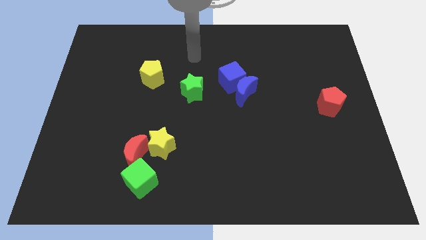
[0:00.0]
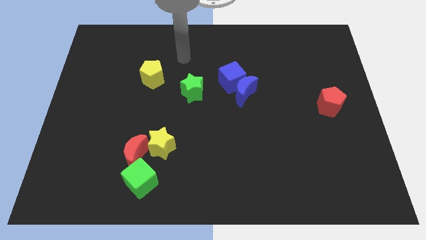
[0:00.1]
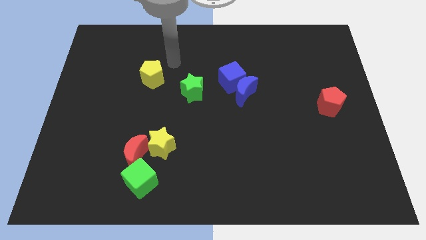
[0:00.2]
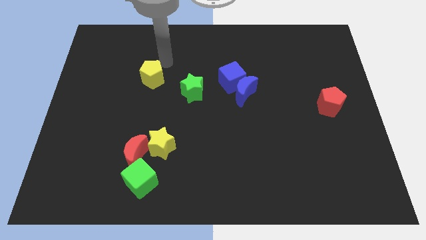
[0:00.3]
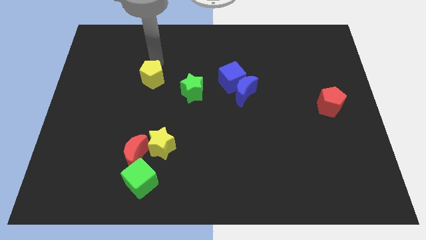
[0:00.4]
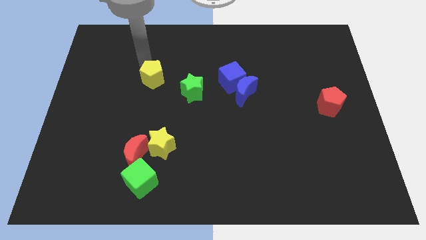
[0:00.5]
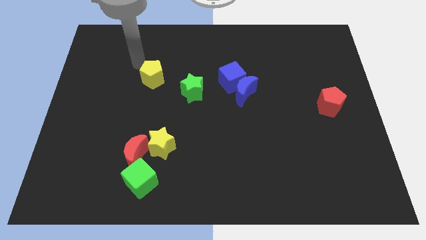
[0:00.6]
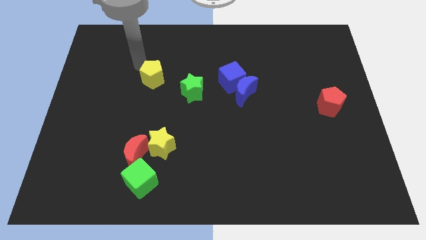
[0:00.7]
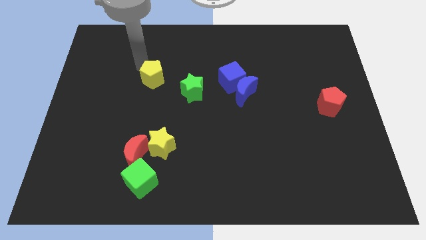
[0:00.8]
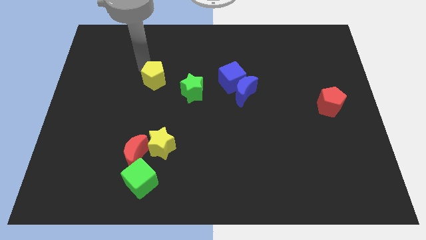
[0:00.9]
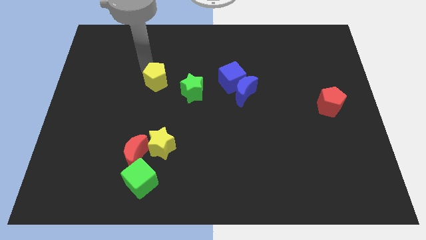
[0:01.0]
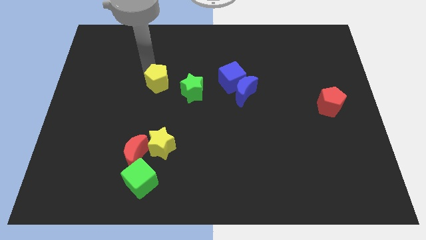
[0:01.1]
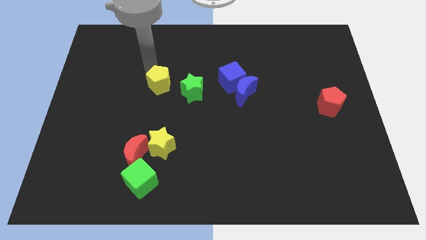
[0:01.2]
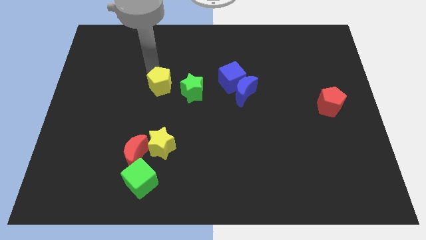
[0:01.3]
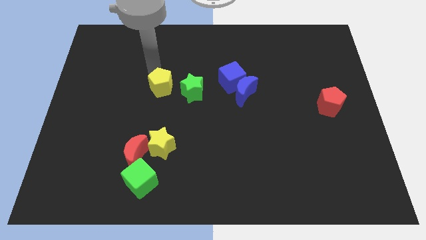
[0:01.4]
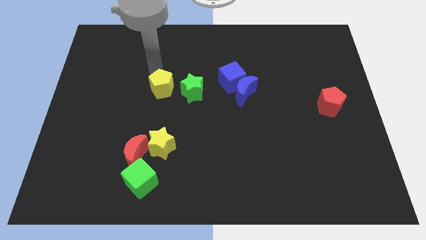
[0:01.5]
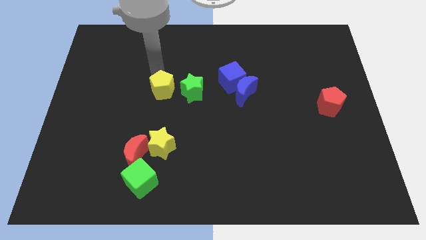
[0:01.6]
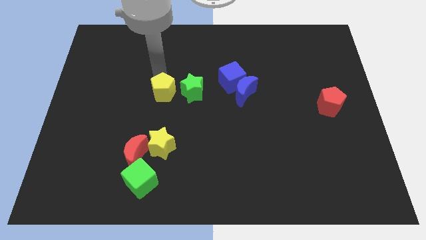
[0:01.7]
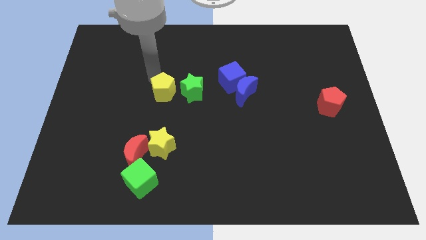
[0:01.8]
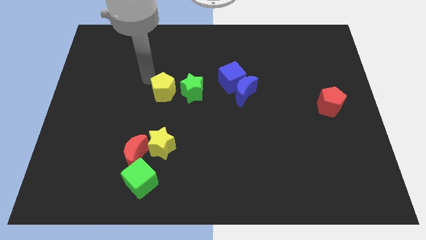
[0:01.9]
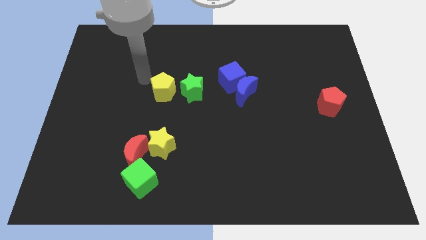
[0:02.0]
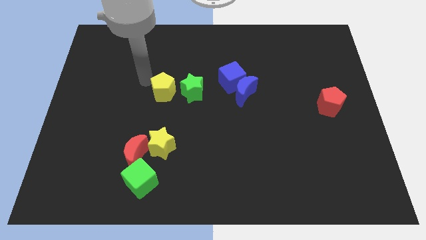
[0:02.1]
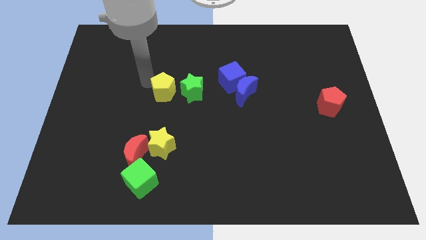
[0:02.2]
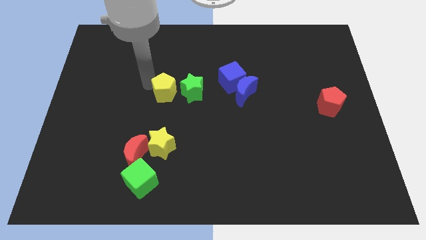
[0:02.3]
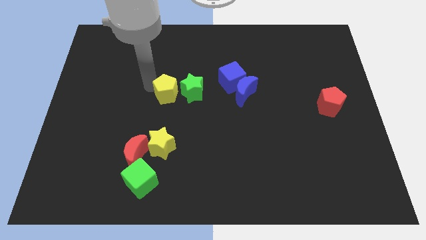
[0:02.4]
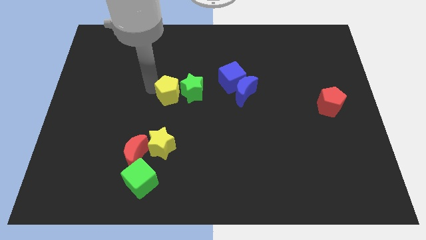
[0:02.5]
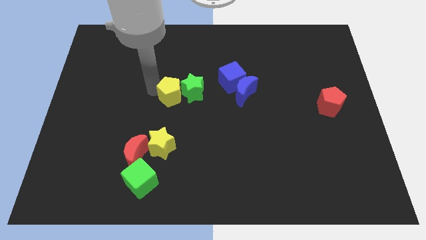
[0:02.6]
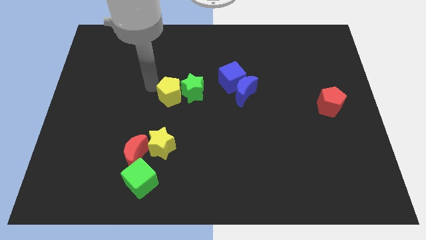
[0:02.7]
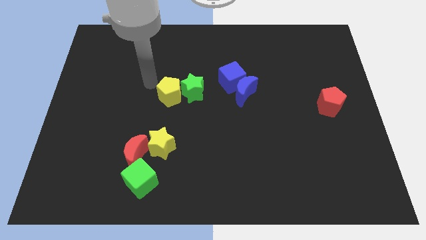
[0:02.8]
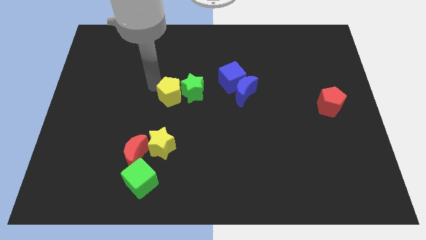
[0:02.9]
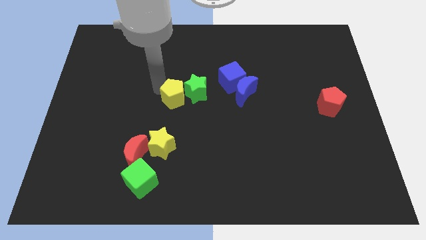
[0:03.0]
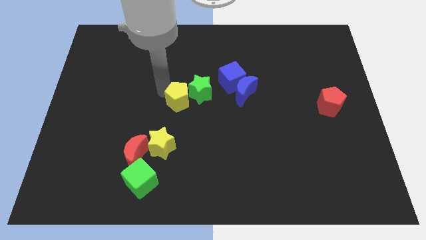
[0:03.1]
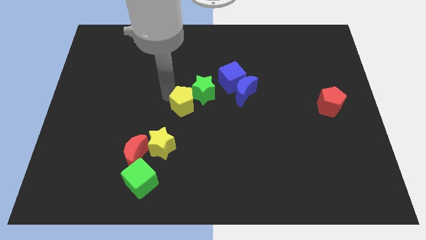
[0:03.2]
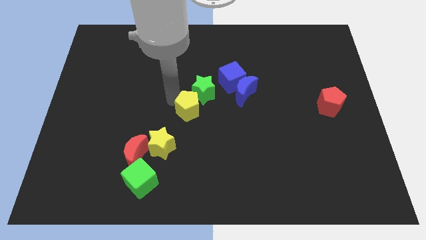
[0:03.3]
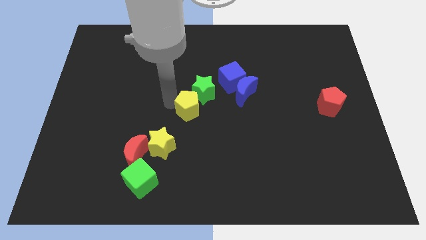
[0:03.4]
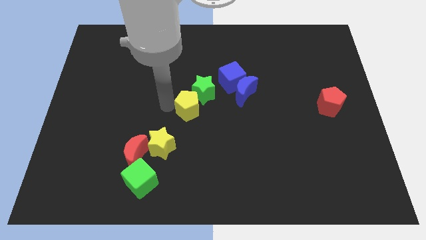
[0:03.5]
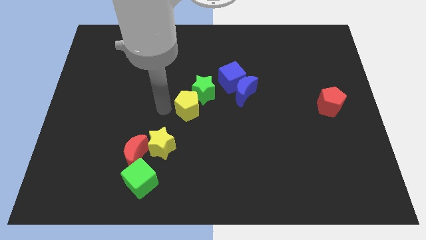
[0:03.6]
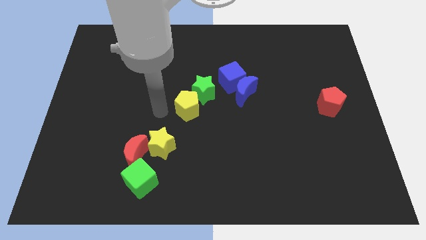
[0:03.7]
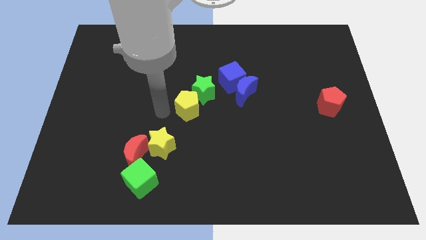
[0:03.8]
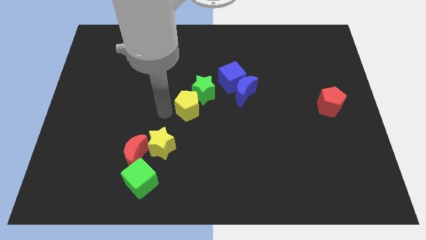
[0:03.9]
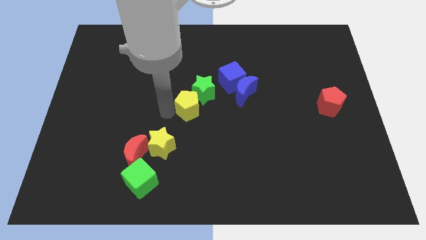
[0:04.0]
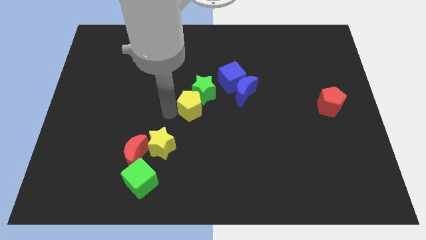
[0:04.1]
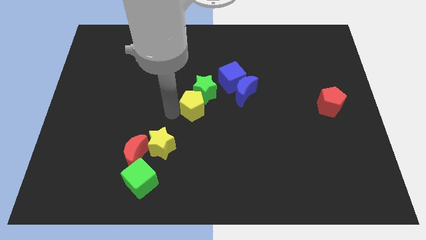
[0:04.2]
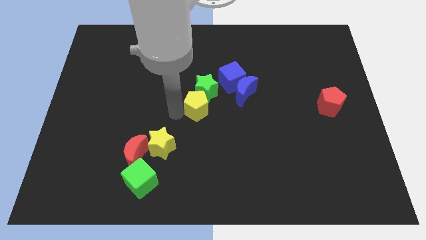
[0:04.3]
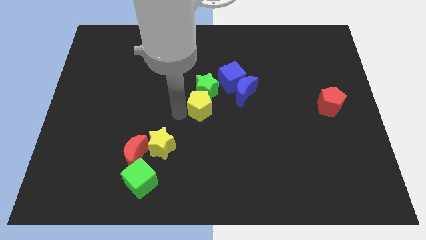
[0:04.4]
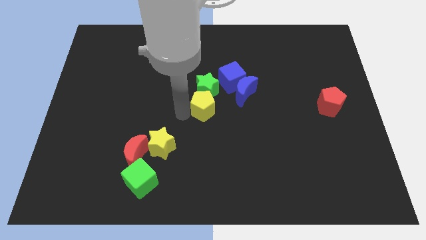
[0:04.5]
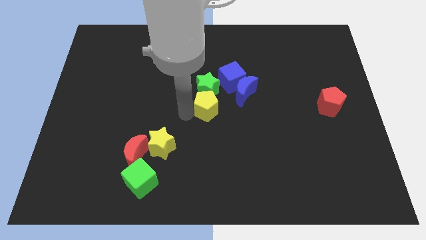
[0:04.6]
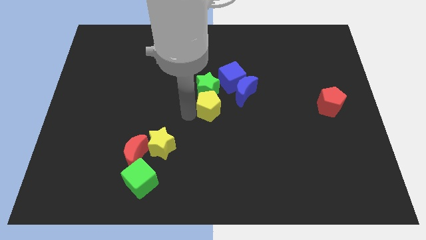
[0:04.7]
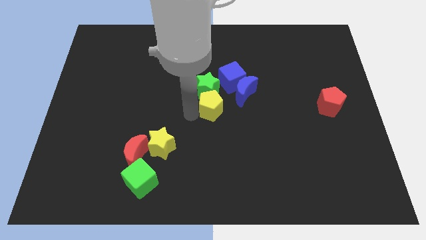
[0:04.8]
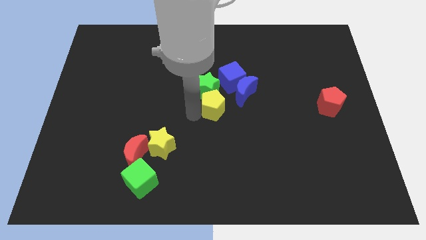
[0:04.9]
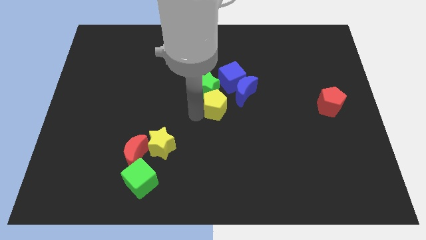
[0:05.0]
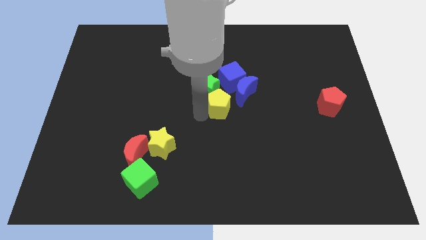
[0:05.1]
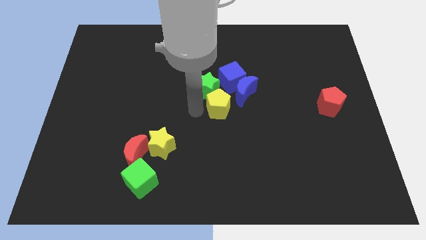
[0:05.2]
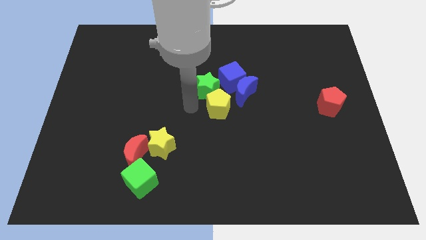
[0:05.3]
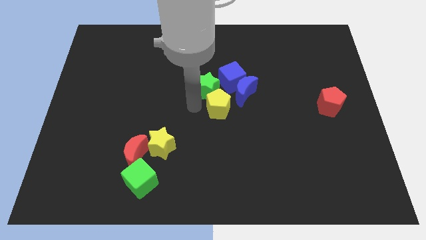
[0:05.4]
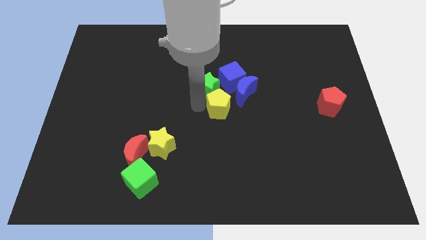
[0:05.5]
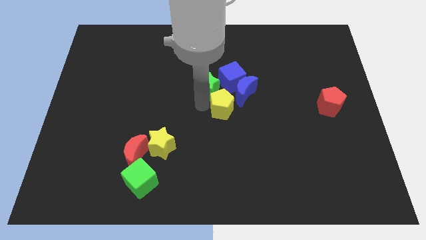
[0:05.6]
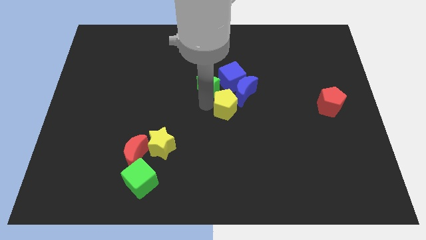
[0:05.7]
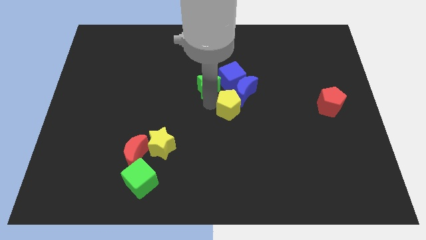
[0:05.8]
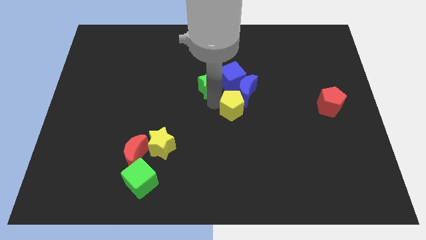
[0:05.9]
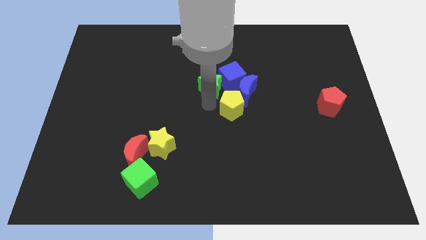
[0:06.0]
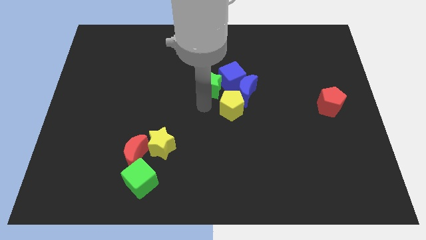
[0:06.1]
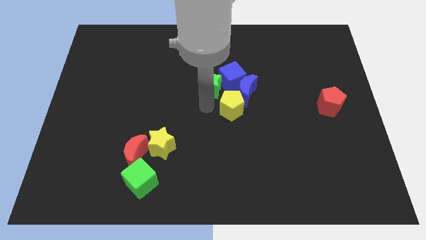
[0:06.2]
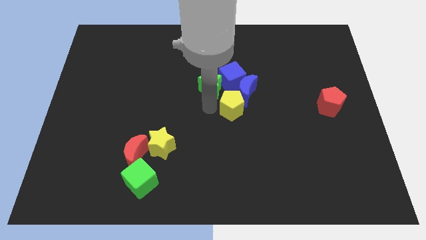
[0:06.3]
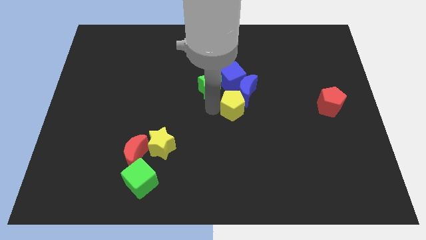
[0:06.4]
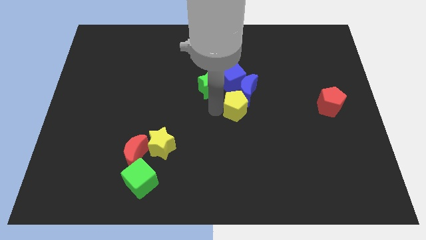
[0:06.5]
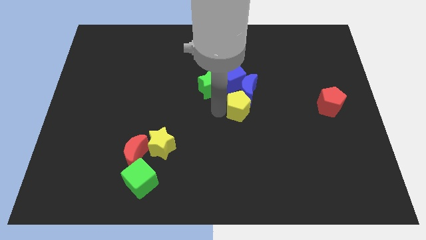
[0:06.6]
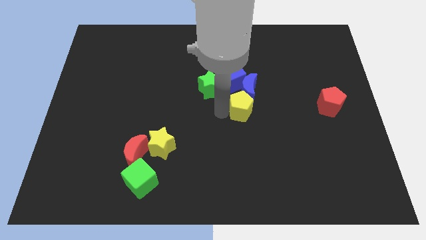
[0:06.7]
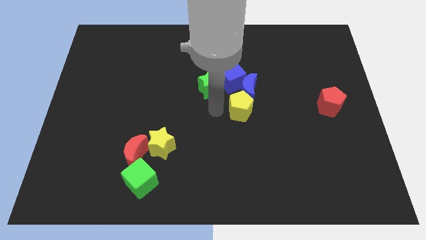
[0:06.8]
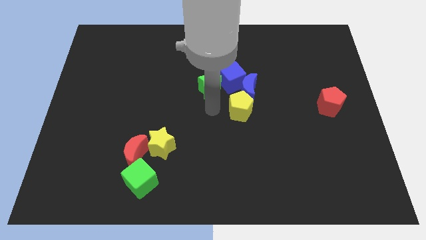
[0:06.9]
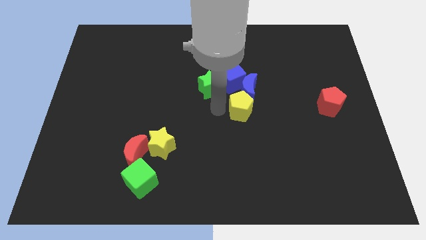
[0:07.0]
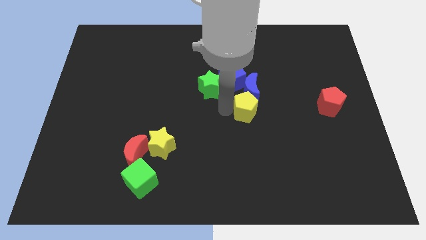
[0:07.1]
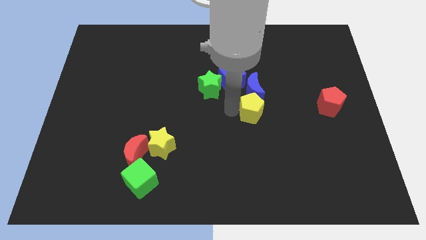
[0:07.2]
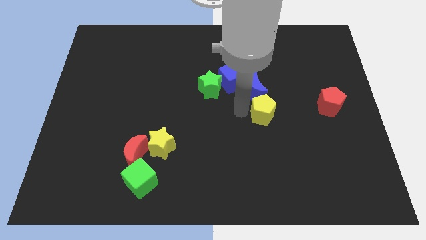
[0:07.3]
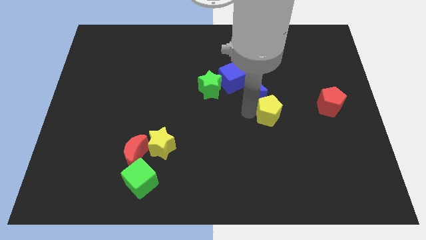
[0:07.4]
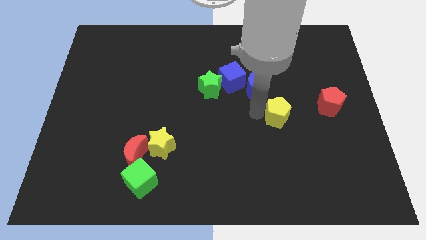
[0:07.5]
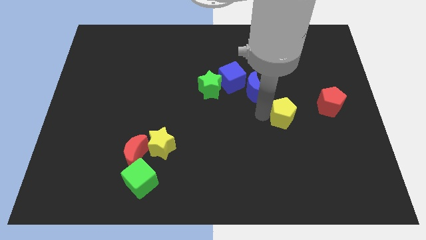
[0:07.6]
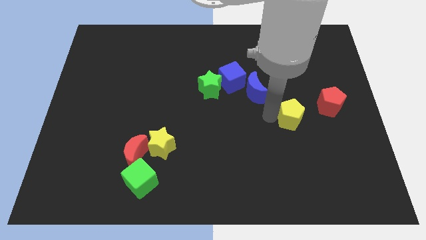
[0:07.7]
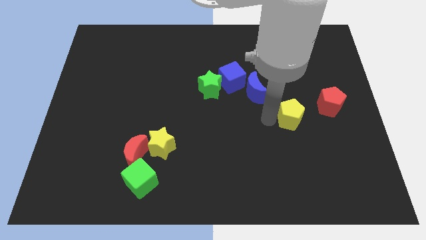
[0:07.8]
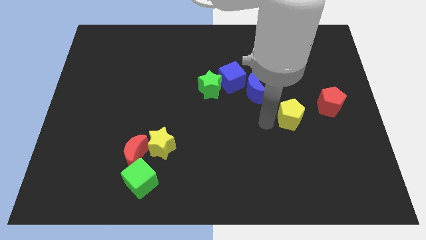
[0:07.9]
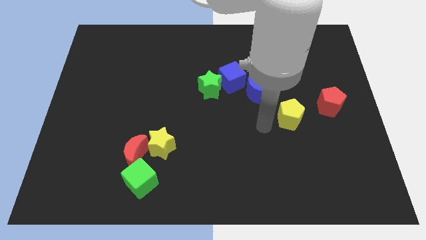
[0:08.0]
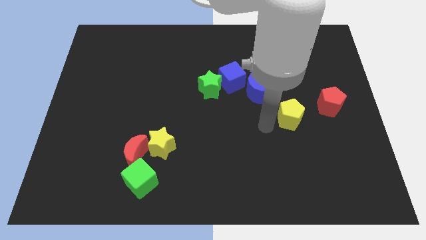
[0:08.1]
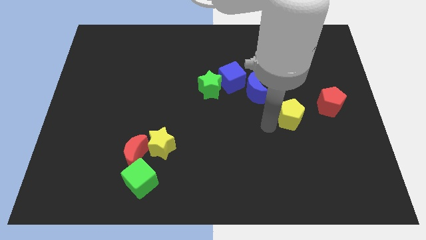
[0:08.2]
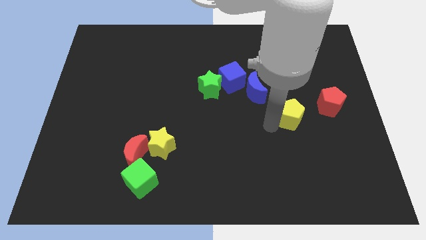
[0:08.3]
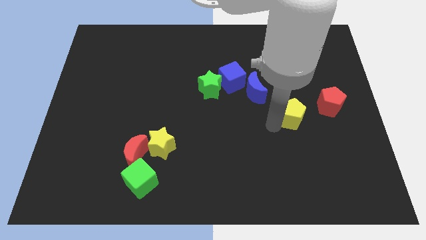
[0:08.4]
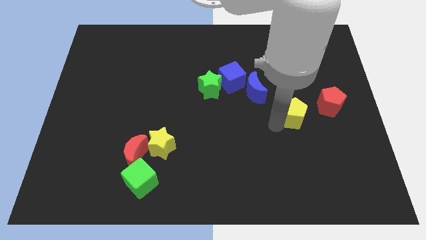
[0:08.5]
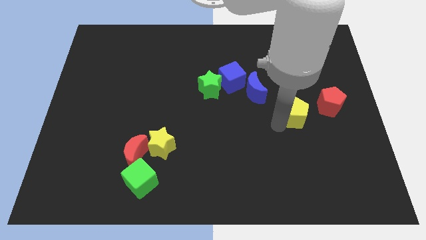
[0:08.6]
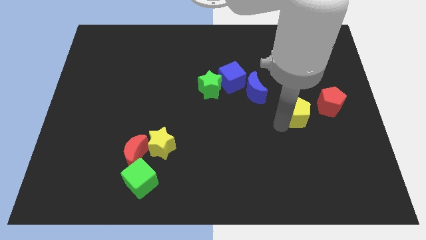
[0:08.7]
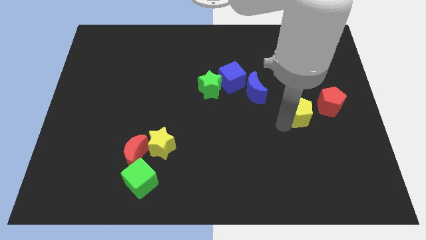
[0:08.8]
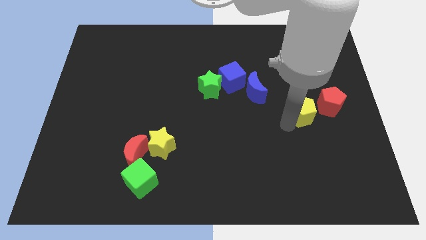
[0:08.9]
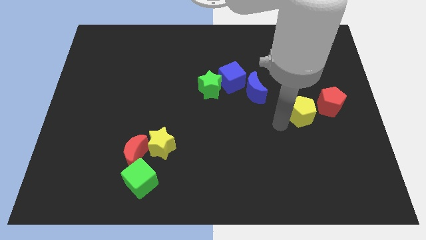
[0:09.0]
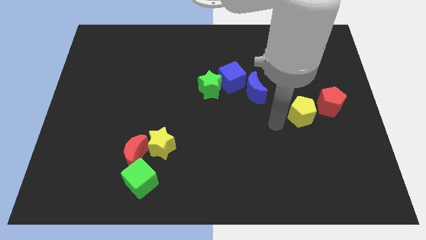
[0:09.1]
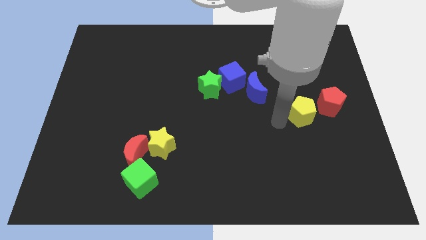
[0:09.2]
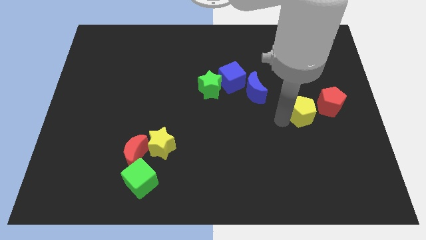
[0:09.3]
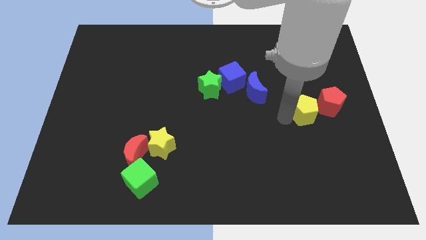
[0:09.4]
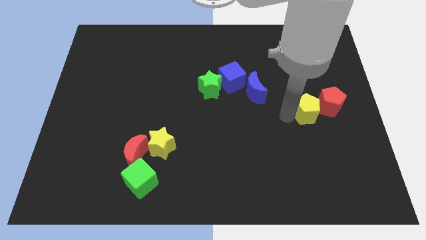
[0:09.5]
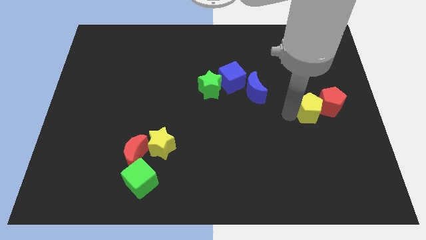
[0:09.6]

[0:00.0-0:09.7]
put the yellow pentagon towards the red pentagon
